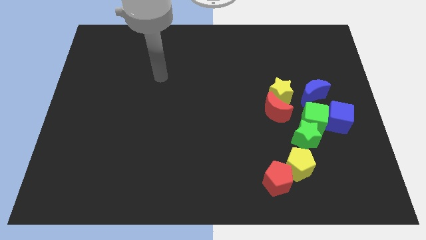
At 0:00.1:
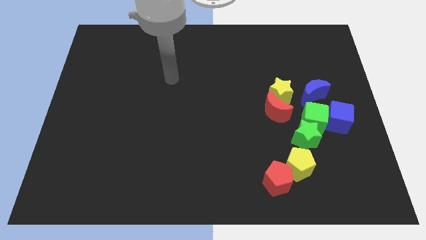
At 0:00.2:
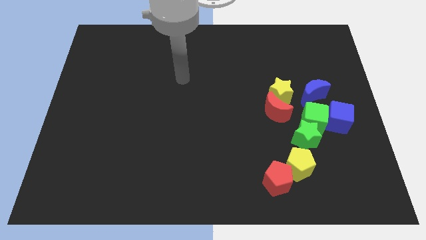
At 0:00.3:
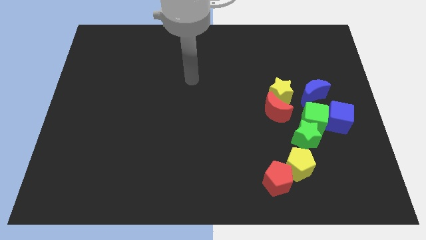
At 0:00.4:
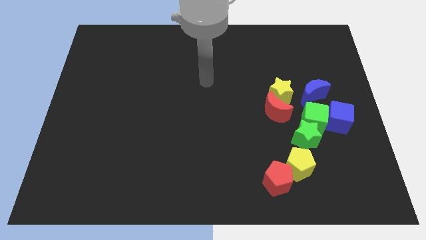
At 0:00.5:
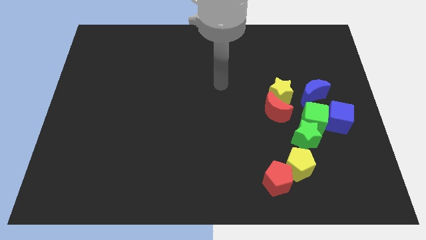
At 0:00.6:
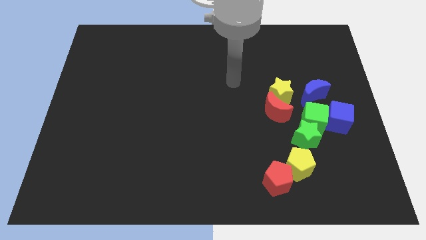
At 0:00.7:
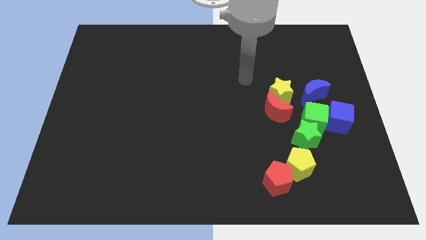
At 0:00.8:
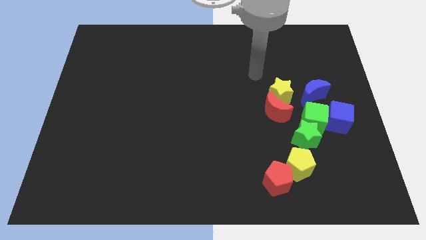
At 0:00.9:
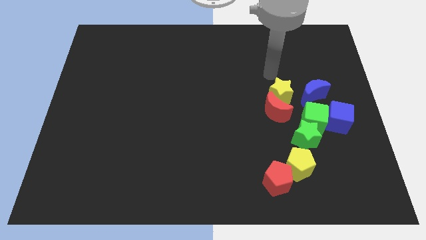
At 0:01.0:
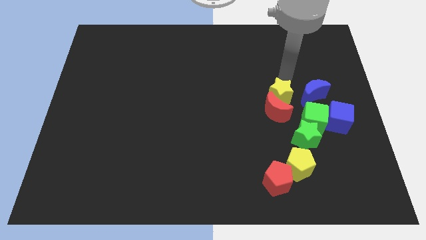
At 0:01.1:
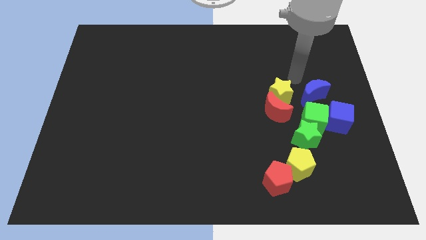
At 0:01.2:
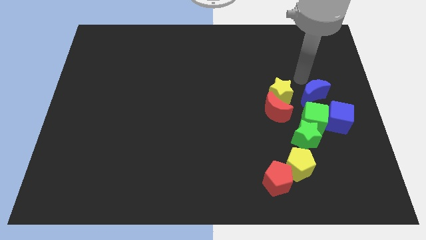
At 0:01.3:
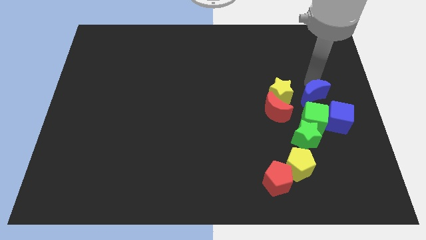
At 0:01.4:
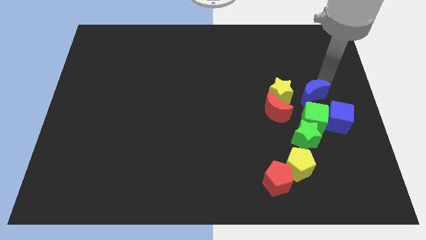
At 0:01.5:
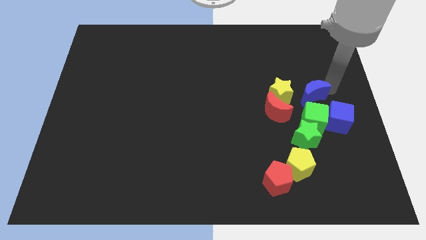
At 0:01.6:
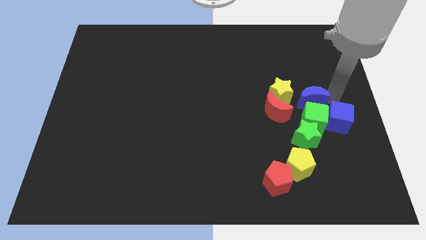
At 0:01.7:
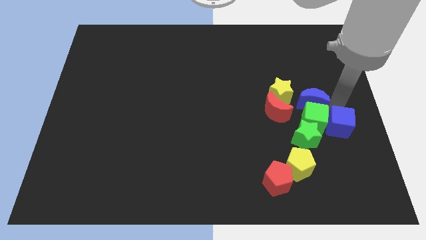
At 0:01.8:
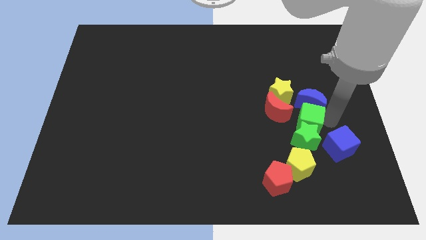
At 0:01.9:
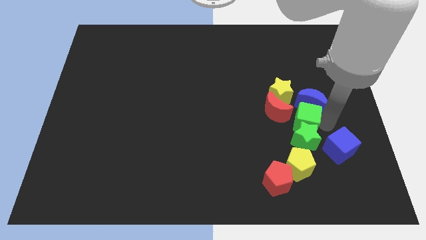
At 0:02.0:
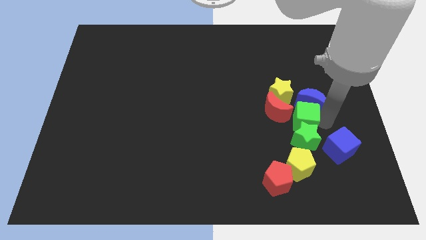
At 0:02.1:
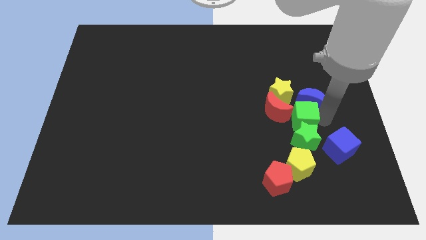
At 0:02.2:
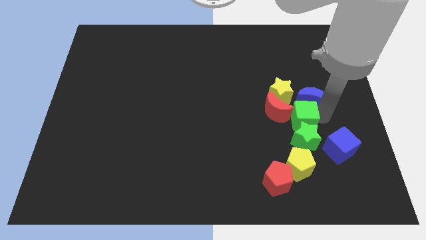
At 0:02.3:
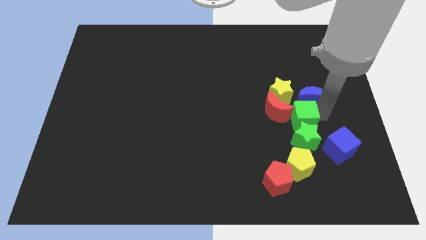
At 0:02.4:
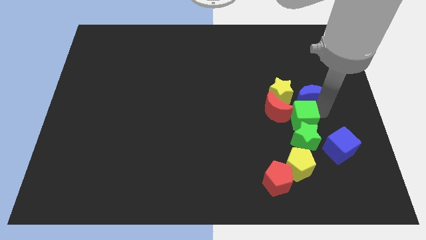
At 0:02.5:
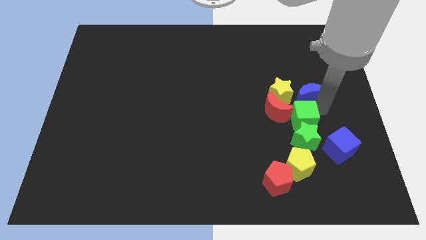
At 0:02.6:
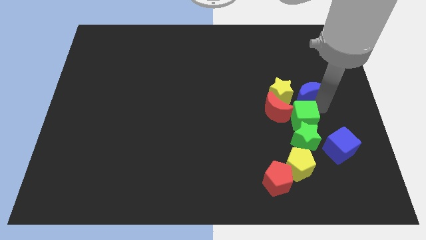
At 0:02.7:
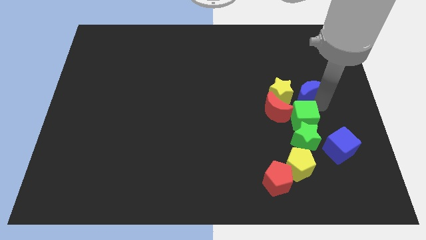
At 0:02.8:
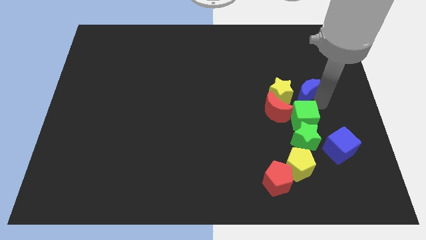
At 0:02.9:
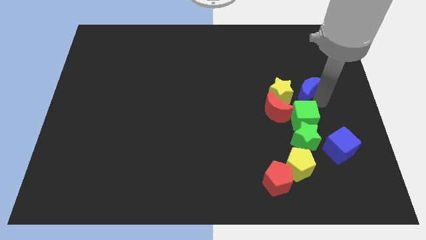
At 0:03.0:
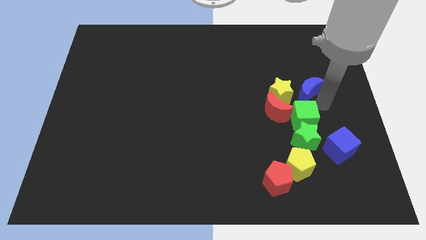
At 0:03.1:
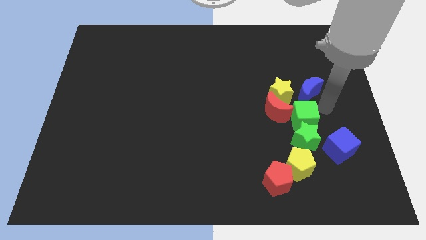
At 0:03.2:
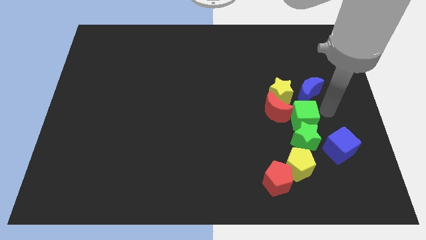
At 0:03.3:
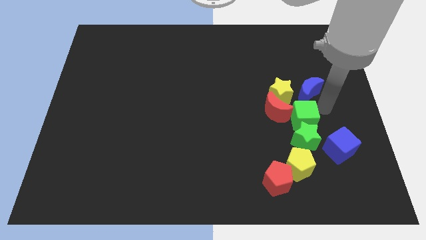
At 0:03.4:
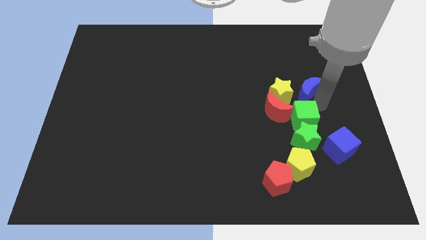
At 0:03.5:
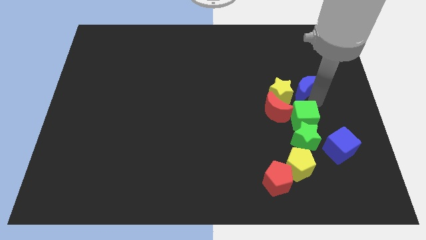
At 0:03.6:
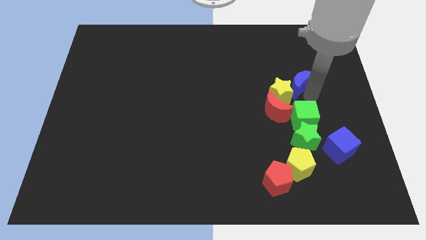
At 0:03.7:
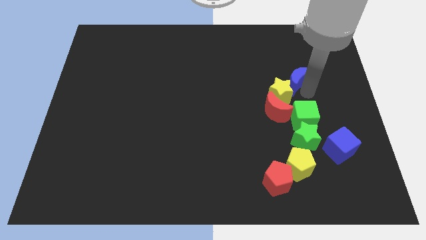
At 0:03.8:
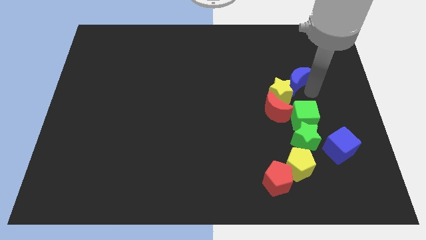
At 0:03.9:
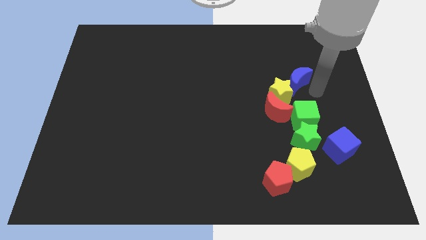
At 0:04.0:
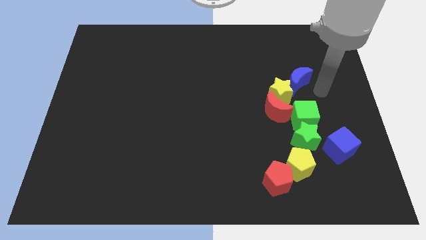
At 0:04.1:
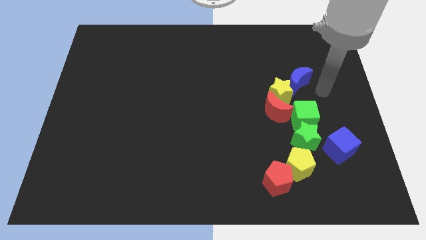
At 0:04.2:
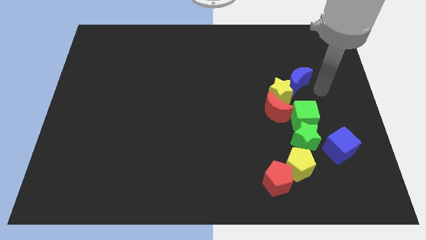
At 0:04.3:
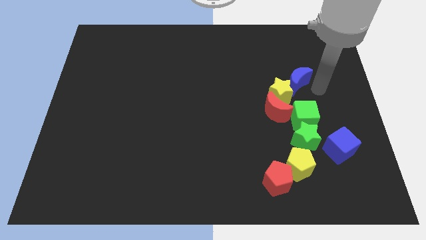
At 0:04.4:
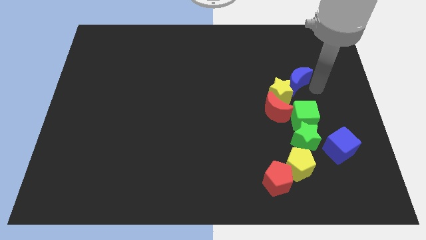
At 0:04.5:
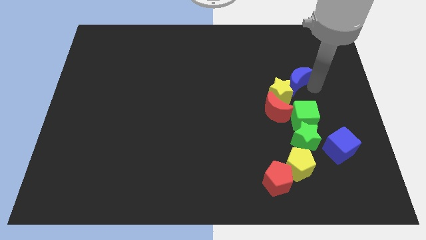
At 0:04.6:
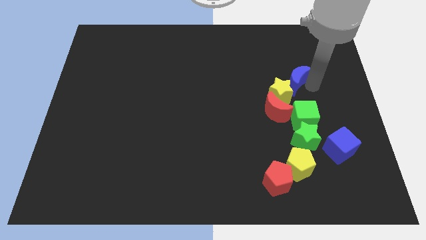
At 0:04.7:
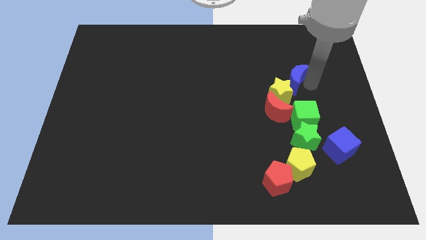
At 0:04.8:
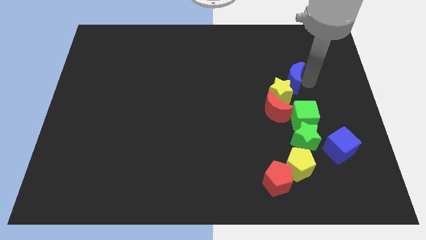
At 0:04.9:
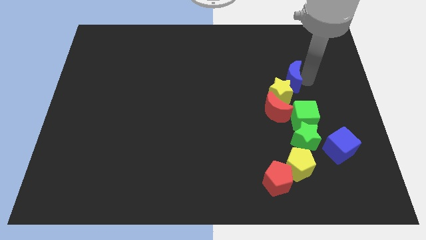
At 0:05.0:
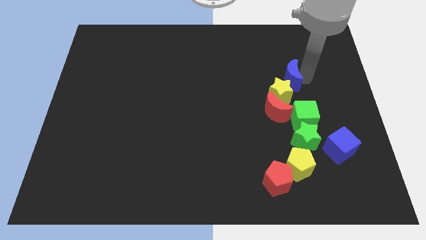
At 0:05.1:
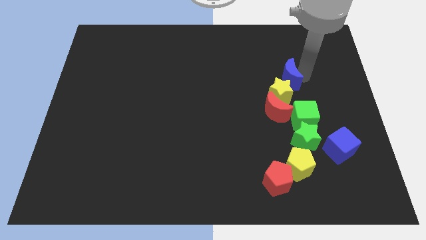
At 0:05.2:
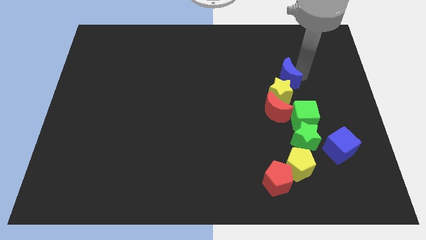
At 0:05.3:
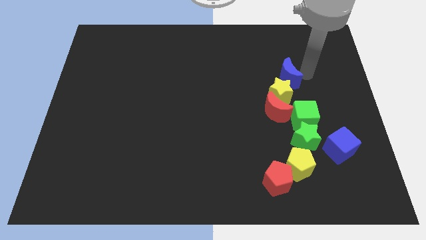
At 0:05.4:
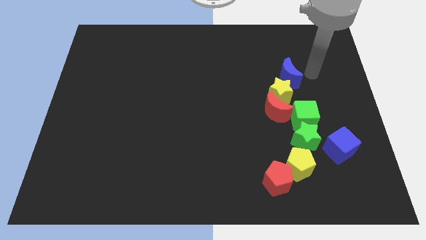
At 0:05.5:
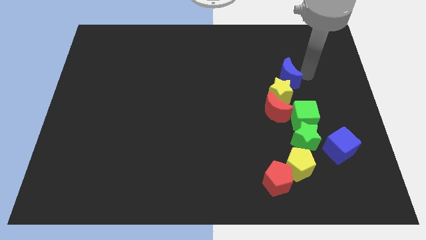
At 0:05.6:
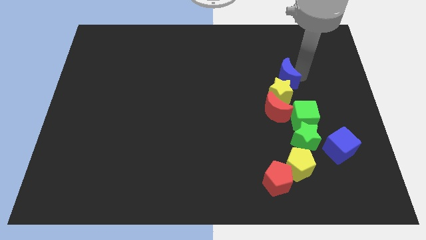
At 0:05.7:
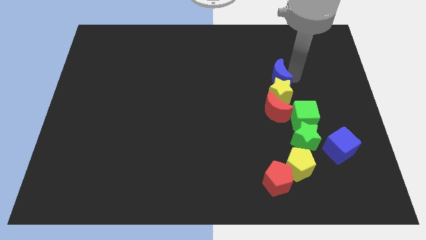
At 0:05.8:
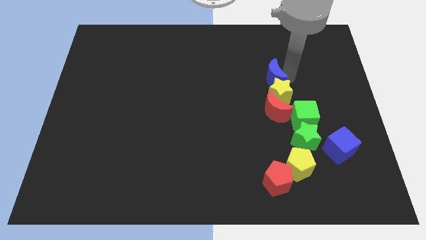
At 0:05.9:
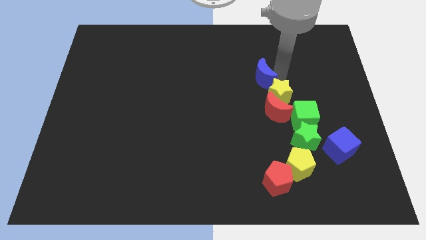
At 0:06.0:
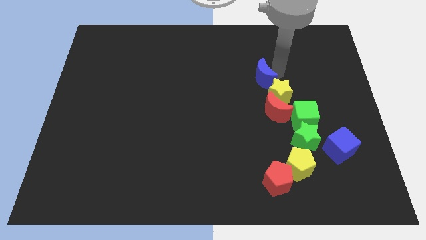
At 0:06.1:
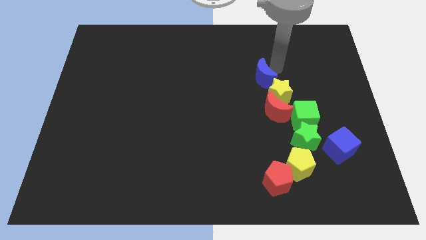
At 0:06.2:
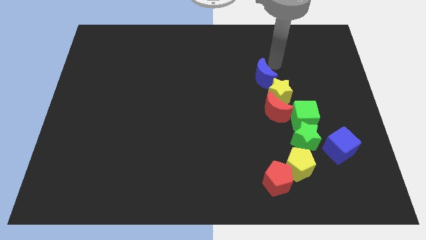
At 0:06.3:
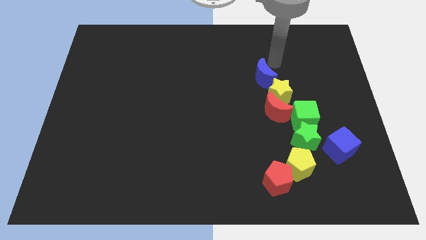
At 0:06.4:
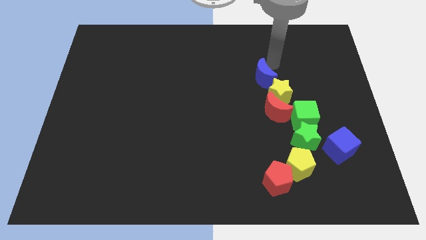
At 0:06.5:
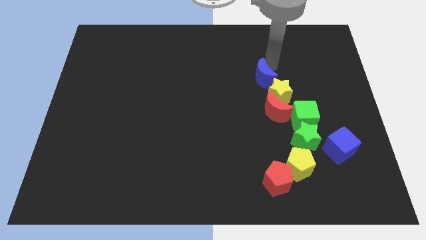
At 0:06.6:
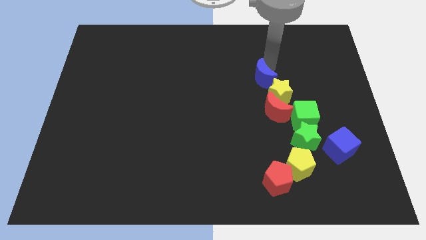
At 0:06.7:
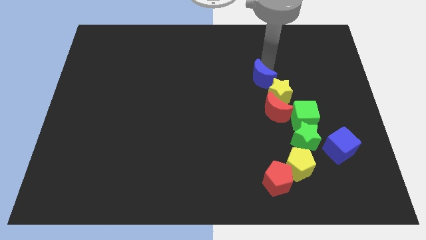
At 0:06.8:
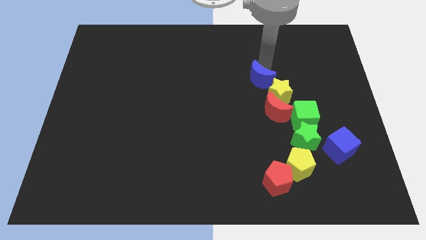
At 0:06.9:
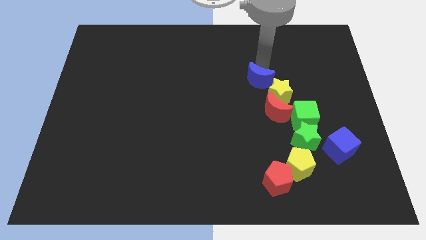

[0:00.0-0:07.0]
push the blue moon to the top left of the red moon
